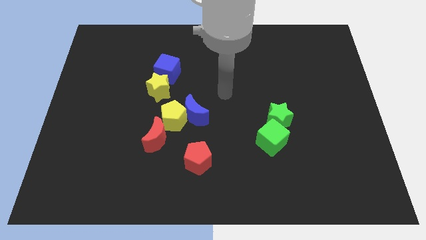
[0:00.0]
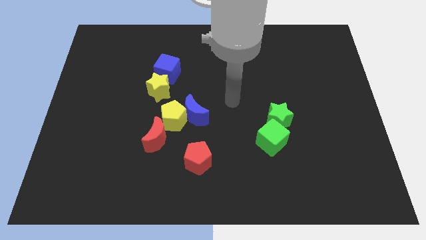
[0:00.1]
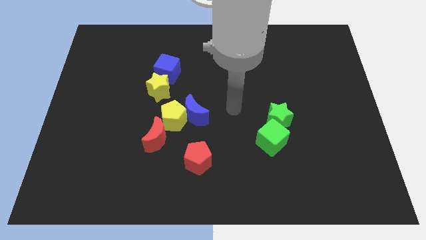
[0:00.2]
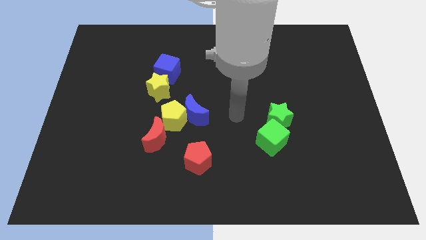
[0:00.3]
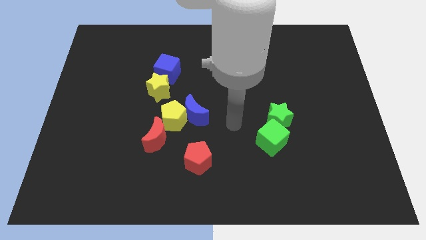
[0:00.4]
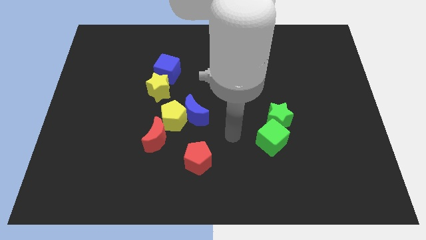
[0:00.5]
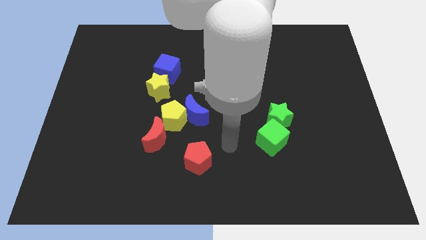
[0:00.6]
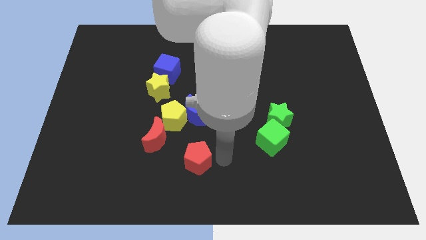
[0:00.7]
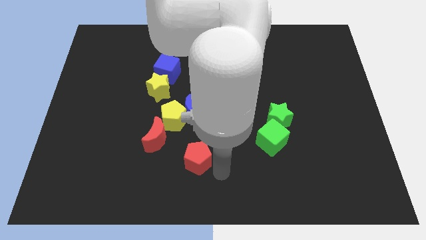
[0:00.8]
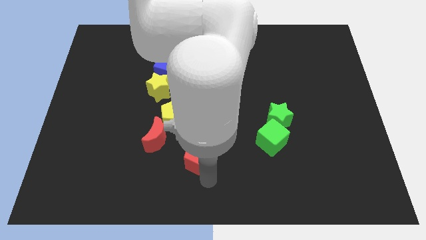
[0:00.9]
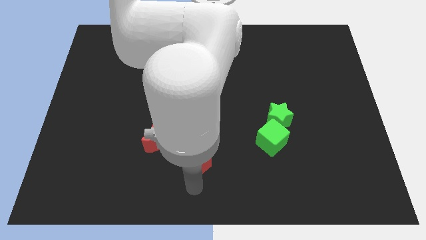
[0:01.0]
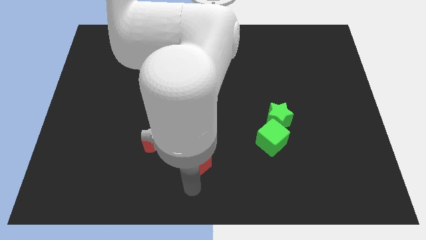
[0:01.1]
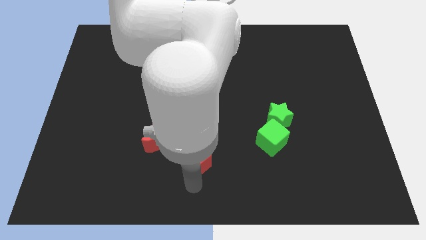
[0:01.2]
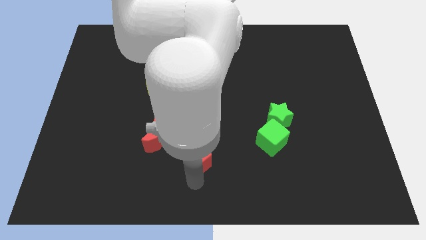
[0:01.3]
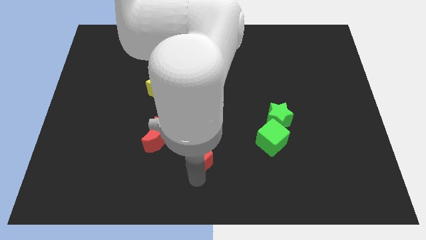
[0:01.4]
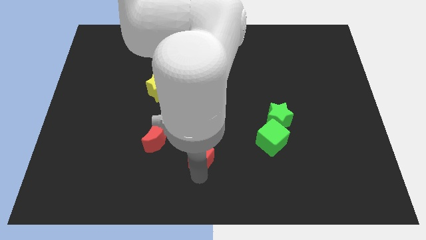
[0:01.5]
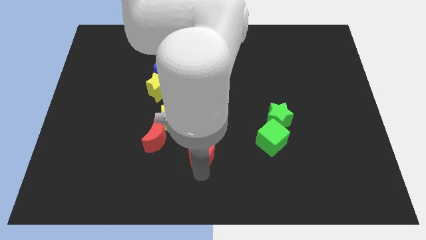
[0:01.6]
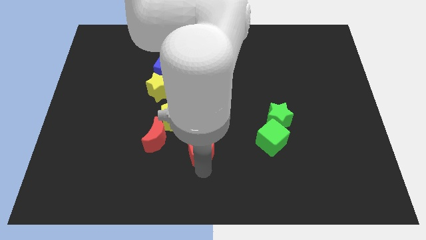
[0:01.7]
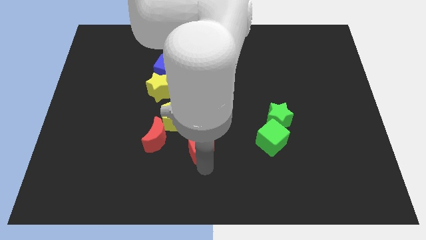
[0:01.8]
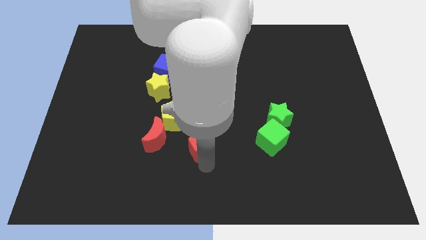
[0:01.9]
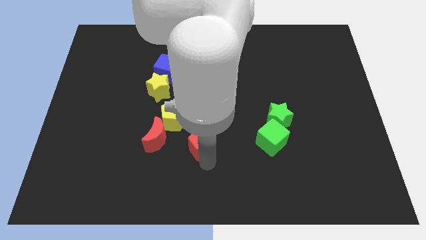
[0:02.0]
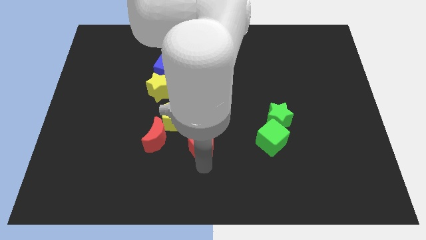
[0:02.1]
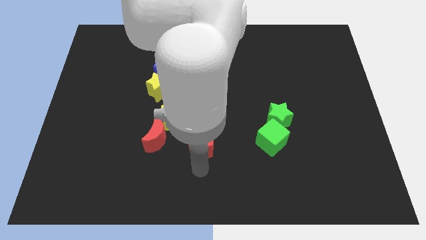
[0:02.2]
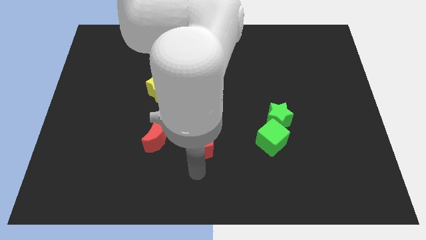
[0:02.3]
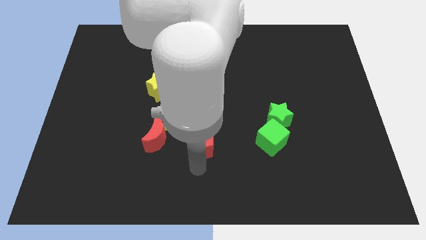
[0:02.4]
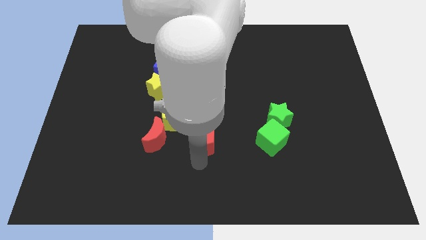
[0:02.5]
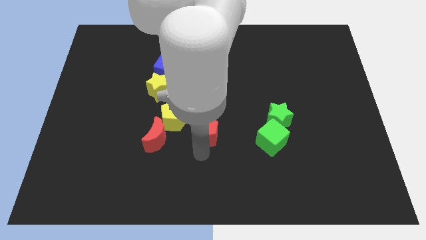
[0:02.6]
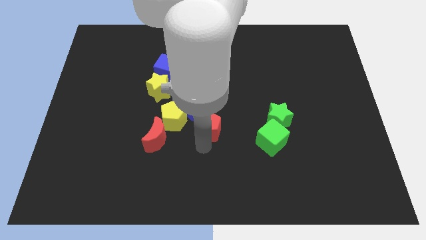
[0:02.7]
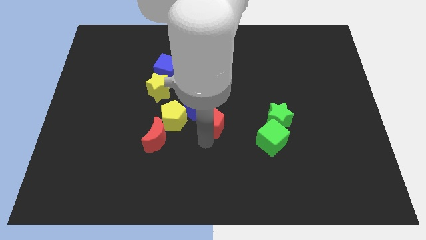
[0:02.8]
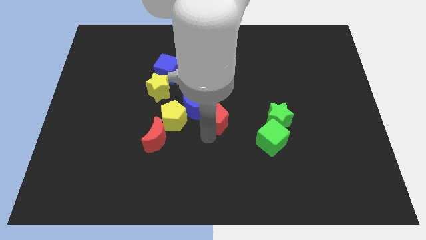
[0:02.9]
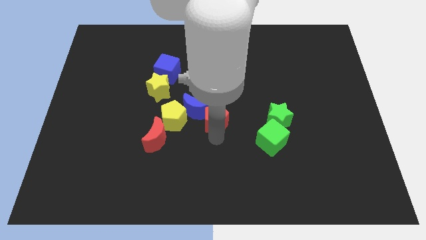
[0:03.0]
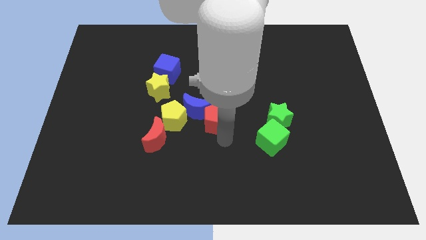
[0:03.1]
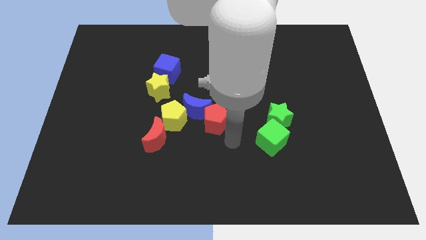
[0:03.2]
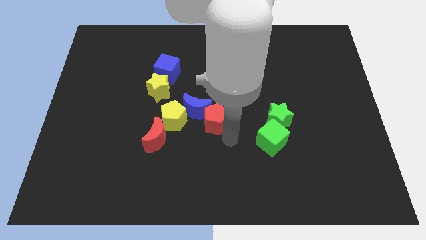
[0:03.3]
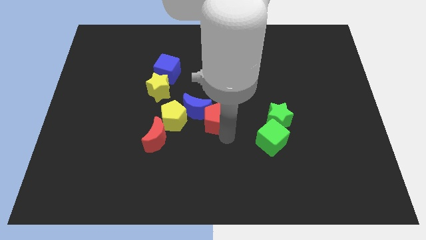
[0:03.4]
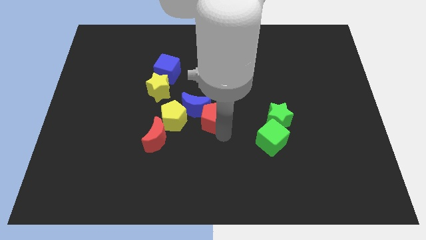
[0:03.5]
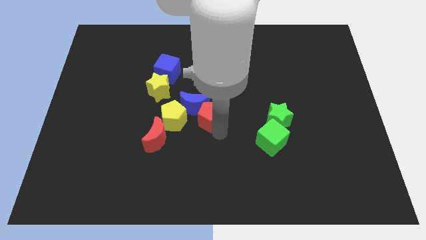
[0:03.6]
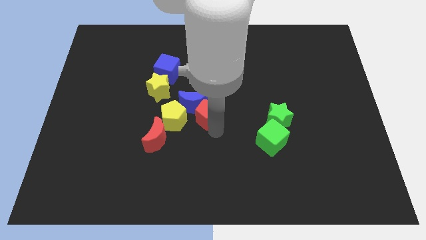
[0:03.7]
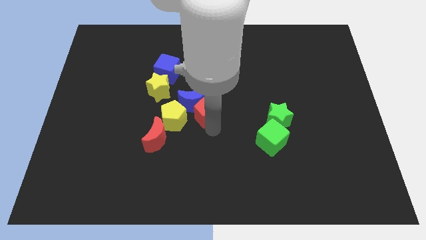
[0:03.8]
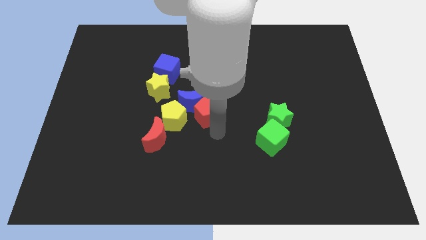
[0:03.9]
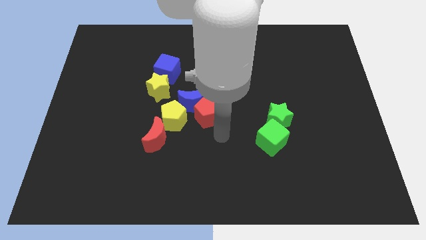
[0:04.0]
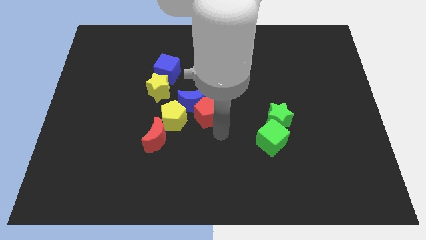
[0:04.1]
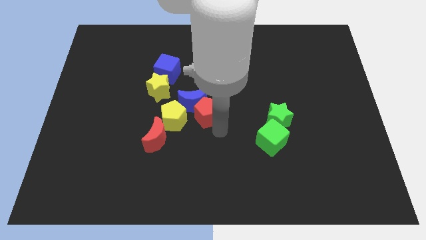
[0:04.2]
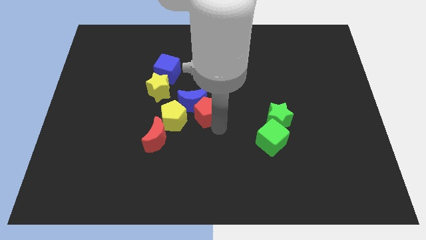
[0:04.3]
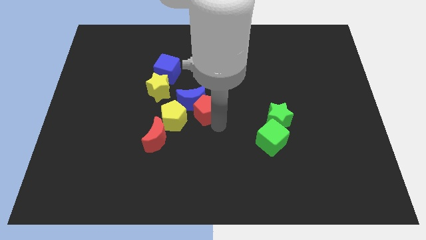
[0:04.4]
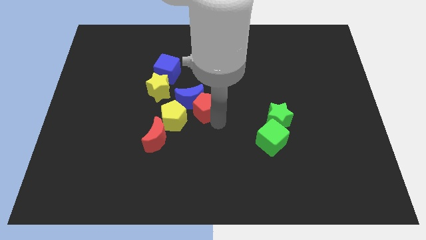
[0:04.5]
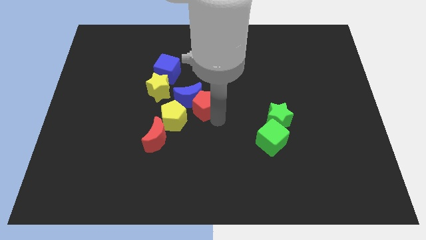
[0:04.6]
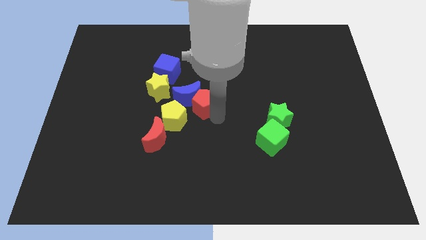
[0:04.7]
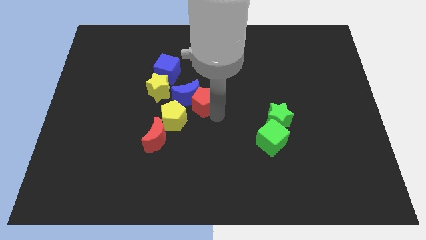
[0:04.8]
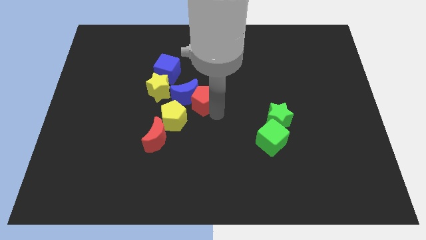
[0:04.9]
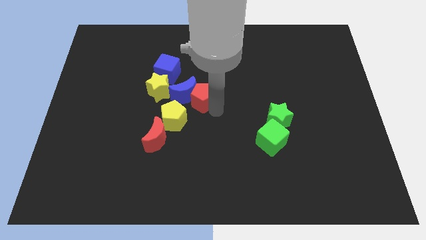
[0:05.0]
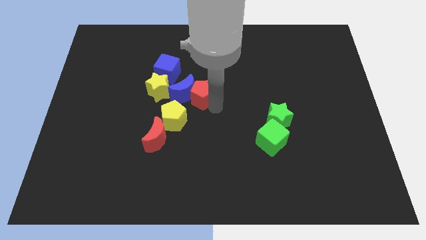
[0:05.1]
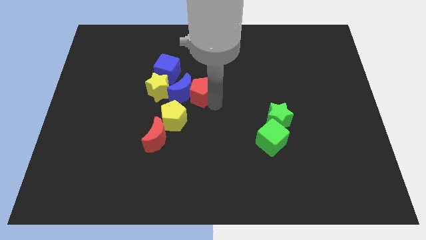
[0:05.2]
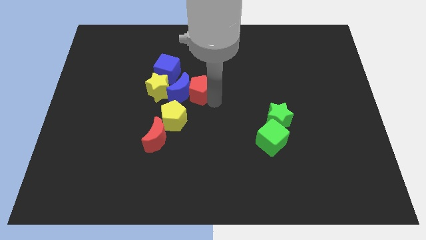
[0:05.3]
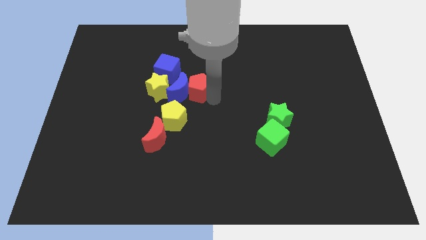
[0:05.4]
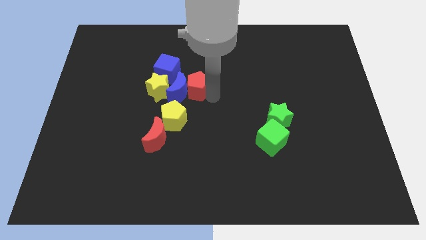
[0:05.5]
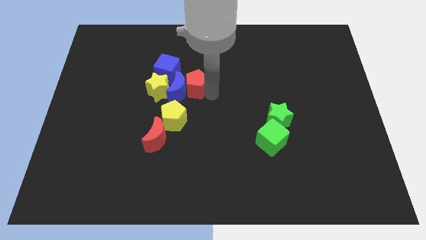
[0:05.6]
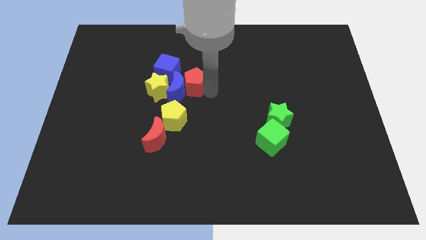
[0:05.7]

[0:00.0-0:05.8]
push the red pentagon to the top side of the yellow pentagon

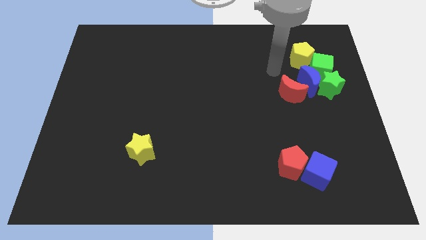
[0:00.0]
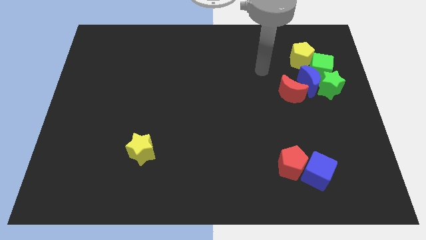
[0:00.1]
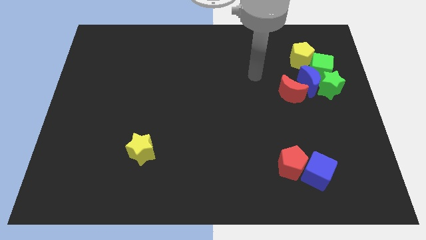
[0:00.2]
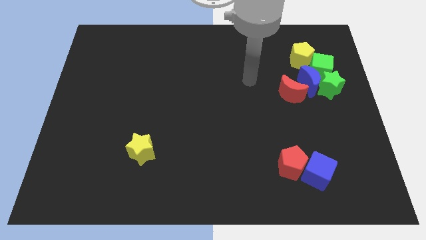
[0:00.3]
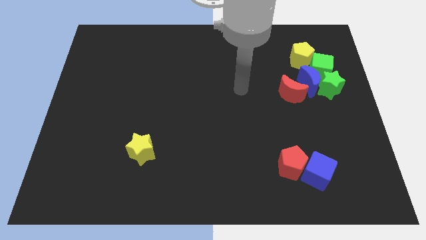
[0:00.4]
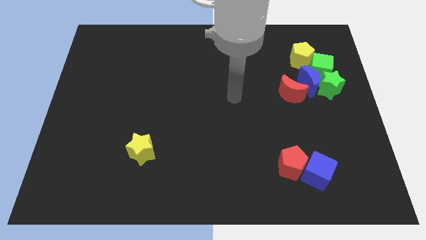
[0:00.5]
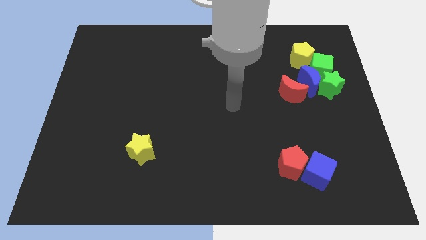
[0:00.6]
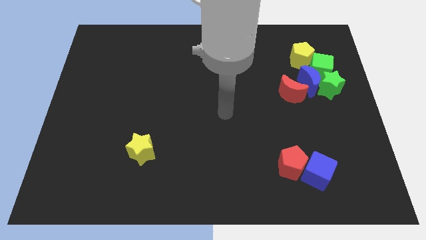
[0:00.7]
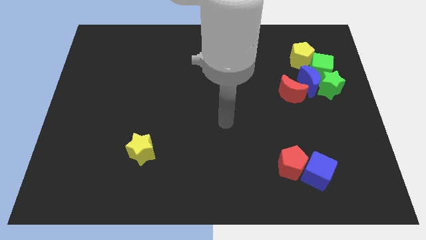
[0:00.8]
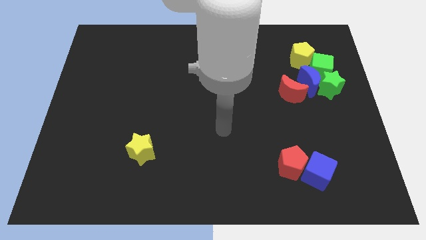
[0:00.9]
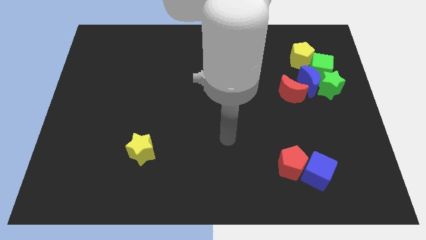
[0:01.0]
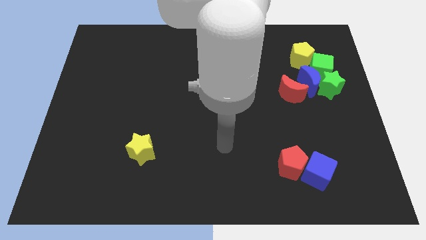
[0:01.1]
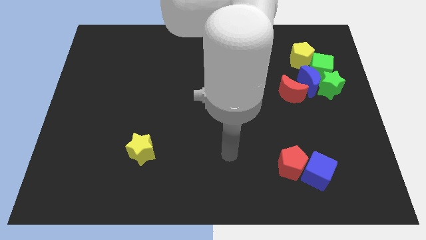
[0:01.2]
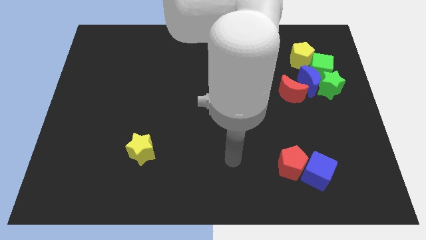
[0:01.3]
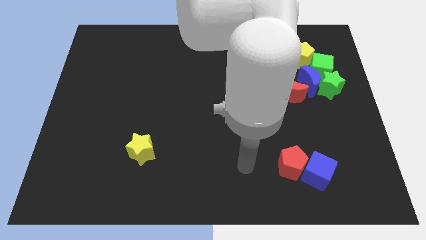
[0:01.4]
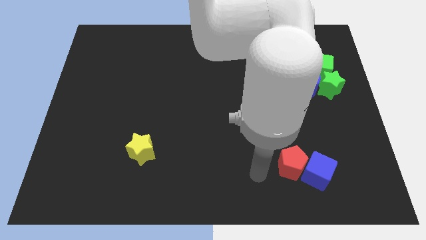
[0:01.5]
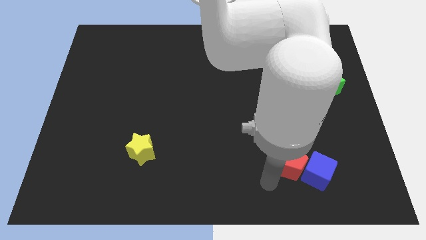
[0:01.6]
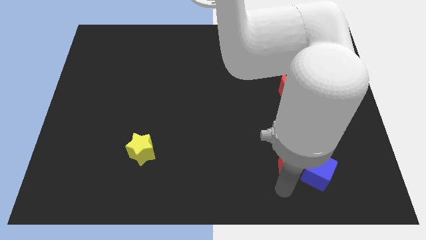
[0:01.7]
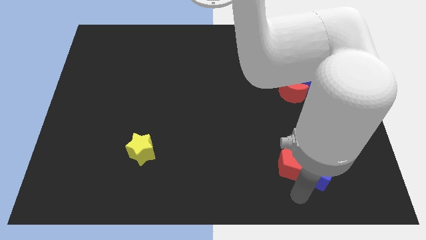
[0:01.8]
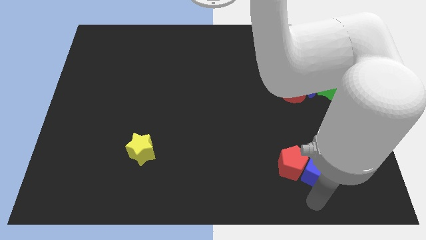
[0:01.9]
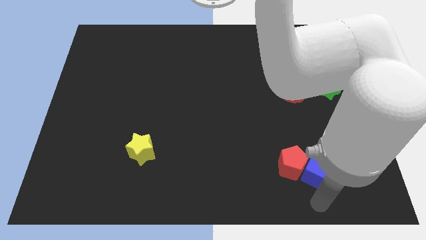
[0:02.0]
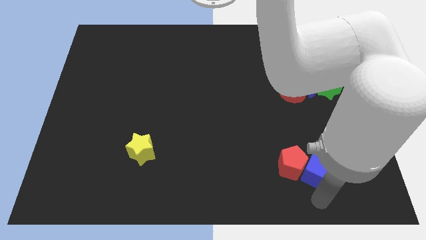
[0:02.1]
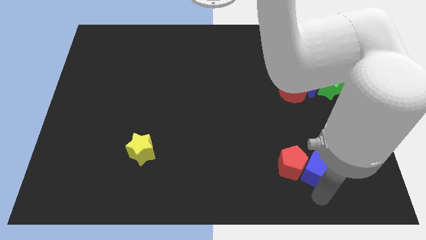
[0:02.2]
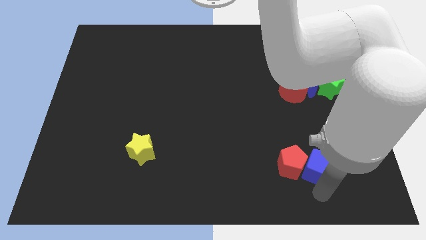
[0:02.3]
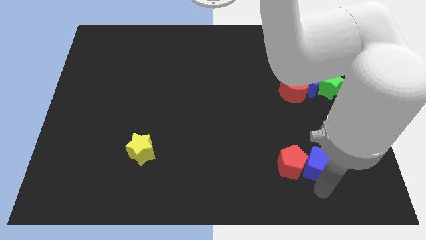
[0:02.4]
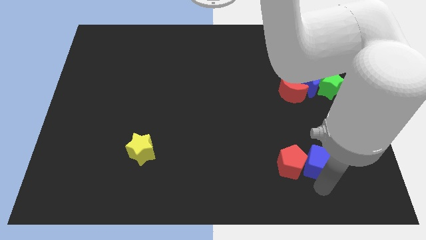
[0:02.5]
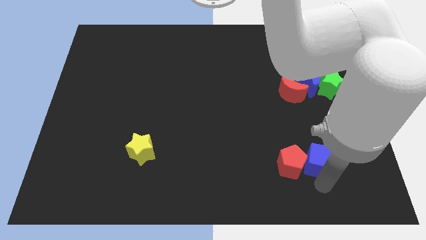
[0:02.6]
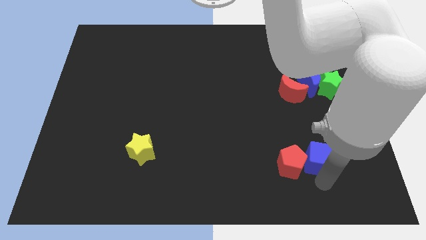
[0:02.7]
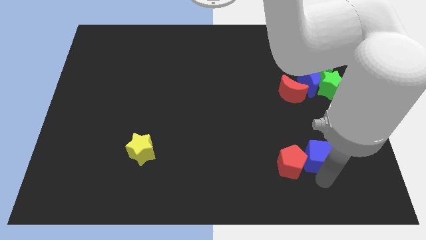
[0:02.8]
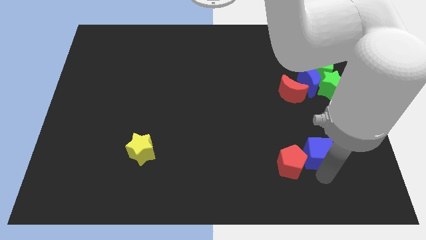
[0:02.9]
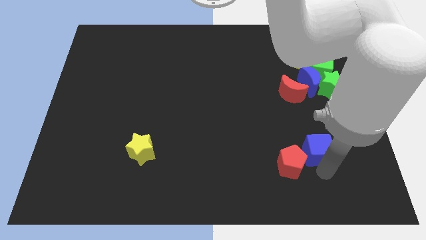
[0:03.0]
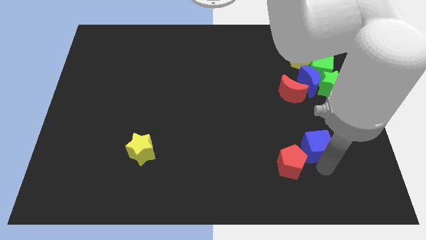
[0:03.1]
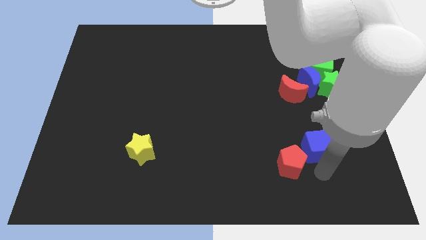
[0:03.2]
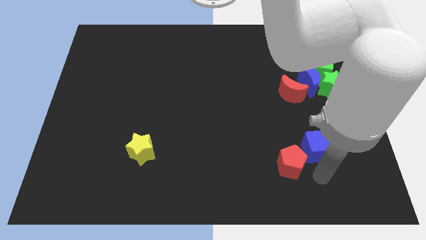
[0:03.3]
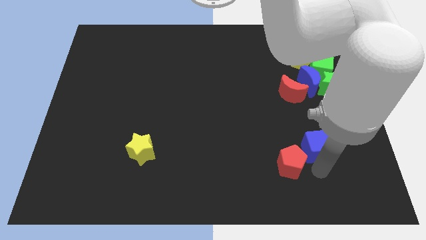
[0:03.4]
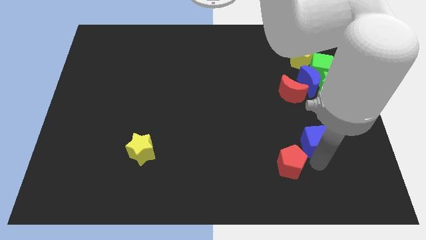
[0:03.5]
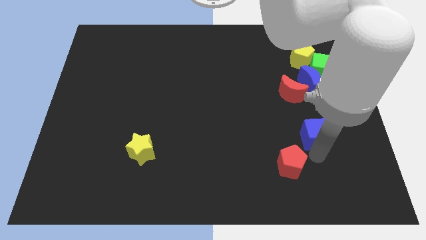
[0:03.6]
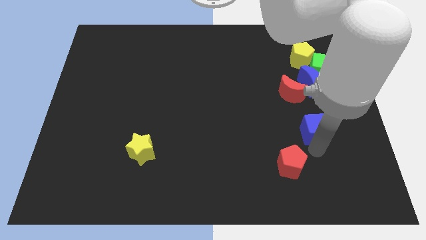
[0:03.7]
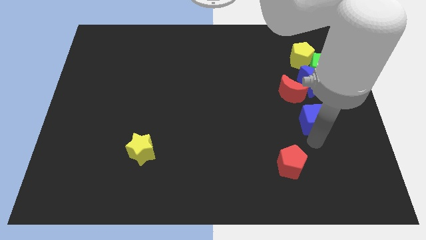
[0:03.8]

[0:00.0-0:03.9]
put the blue cube to the bottom left of the green star
